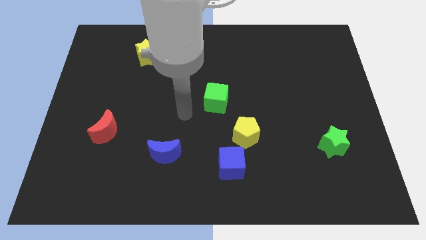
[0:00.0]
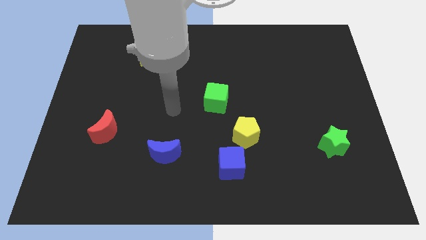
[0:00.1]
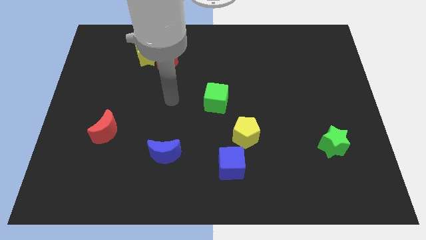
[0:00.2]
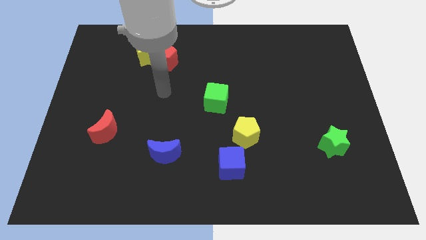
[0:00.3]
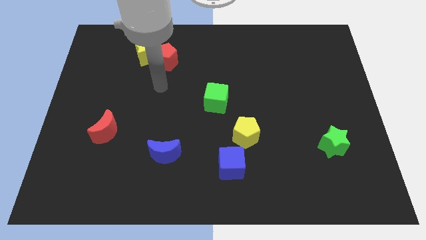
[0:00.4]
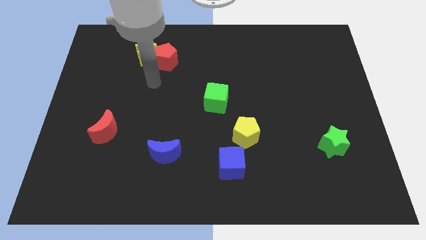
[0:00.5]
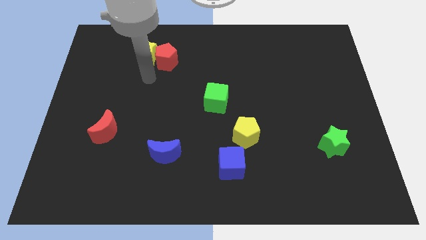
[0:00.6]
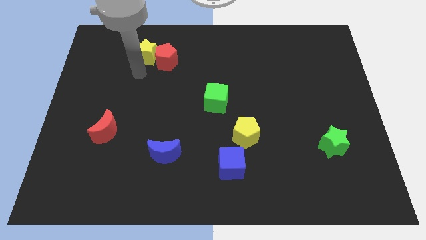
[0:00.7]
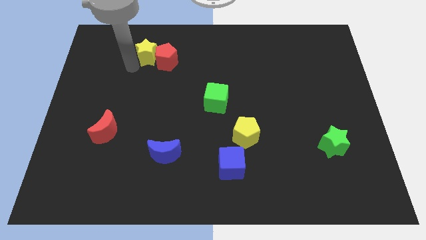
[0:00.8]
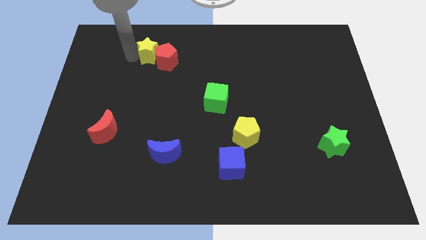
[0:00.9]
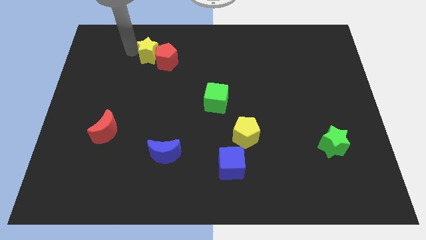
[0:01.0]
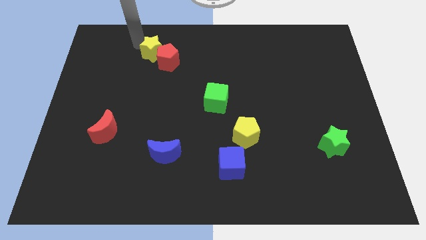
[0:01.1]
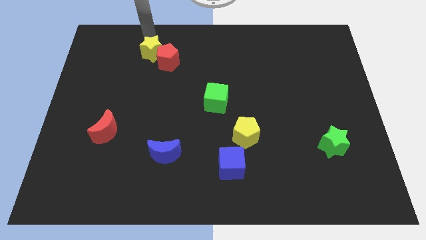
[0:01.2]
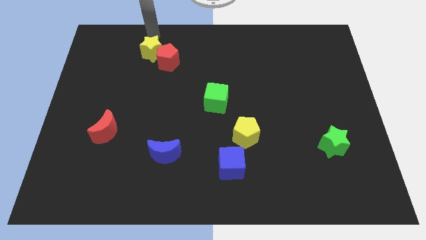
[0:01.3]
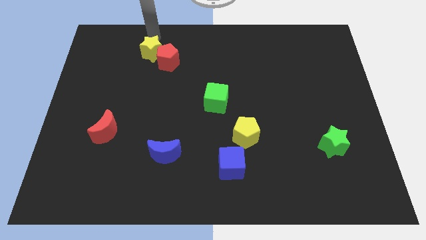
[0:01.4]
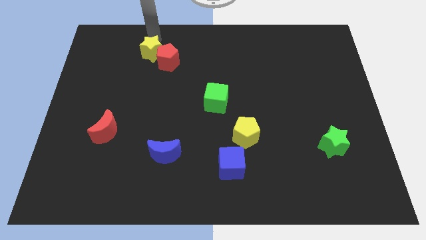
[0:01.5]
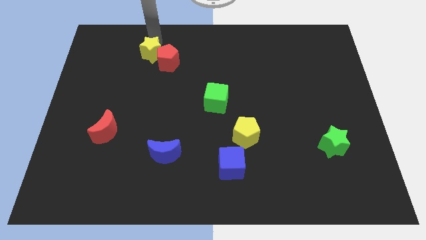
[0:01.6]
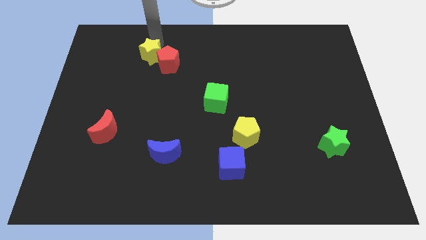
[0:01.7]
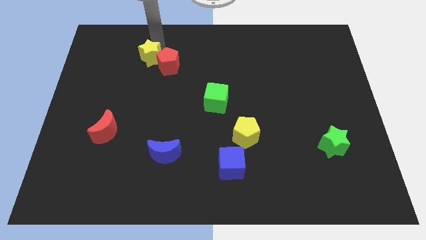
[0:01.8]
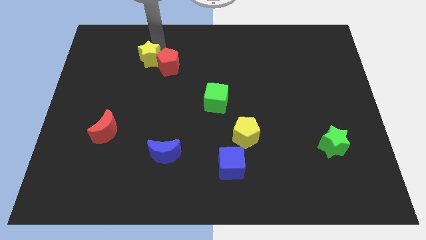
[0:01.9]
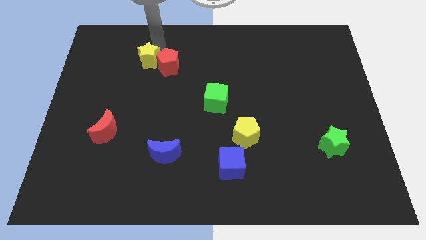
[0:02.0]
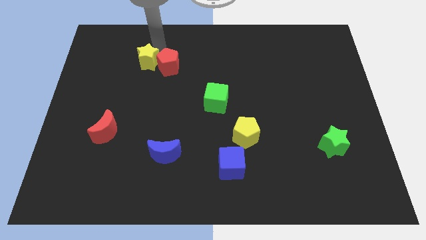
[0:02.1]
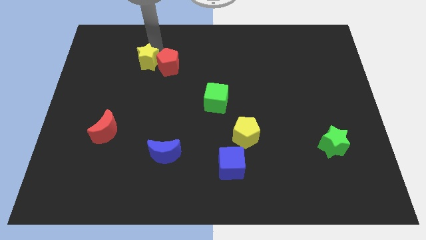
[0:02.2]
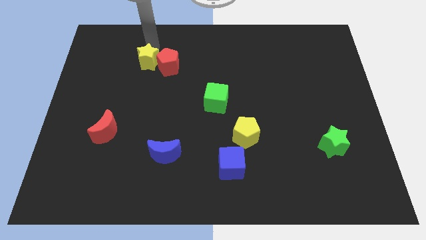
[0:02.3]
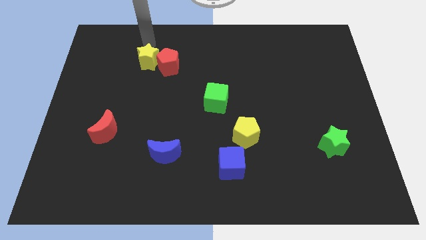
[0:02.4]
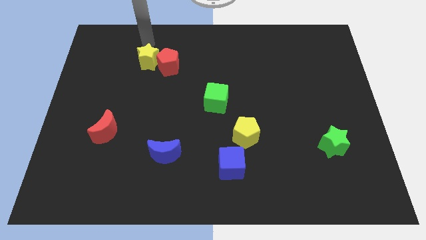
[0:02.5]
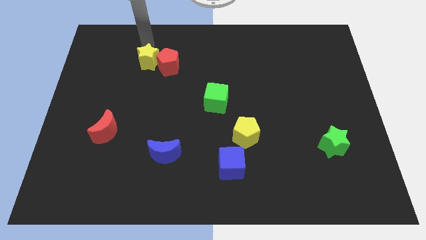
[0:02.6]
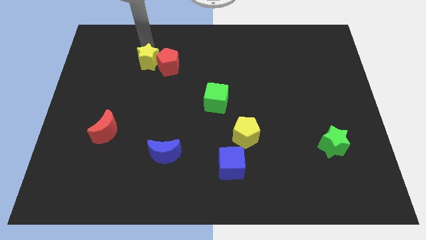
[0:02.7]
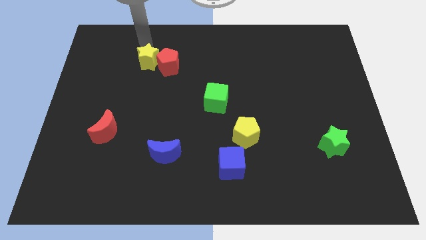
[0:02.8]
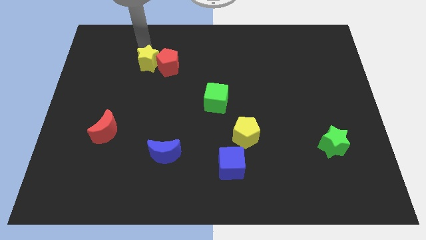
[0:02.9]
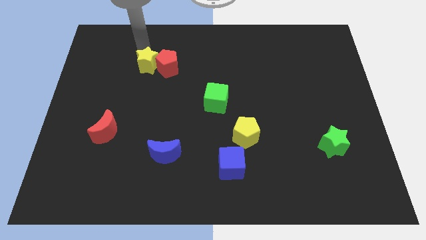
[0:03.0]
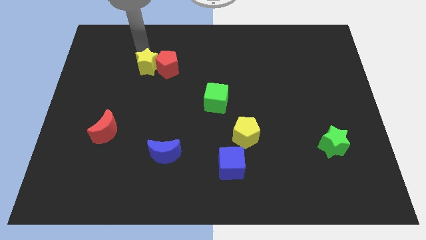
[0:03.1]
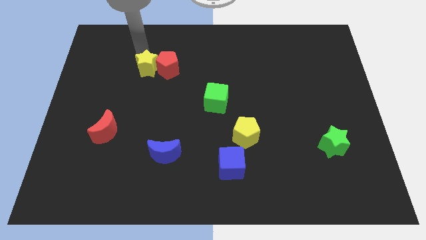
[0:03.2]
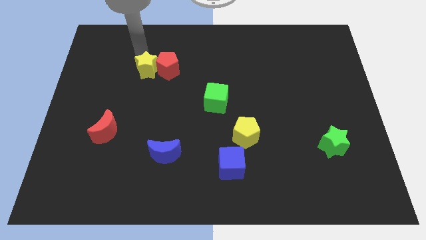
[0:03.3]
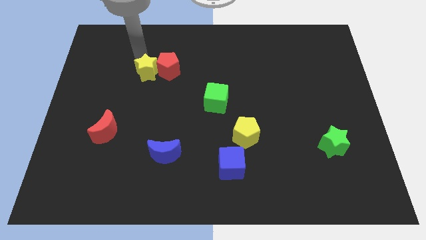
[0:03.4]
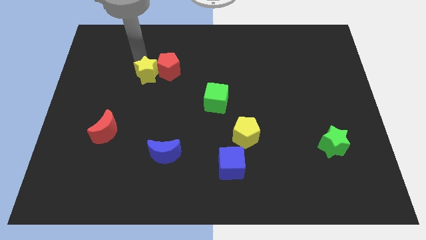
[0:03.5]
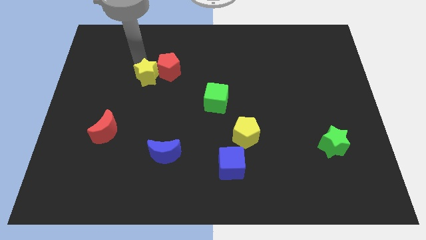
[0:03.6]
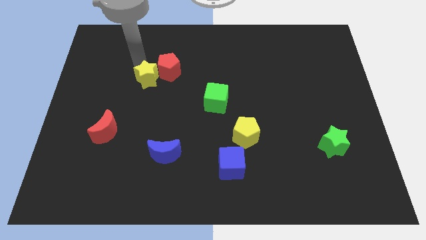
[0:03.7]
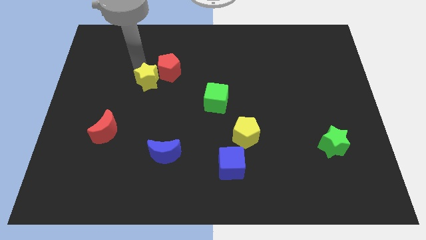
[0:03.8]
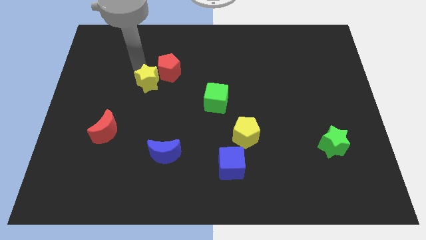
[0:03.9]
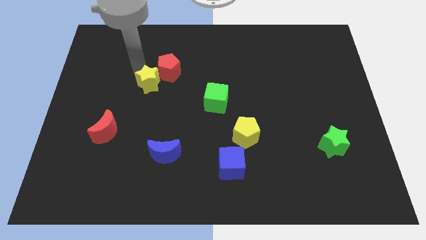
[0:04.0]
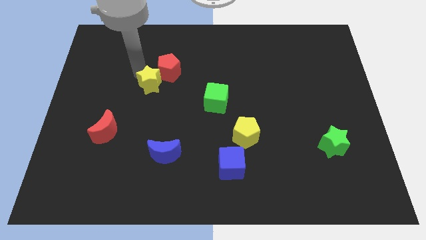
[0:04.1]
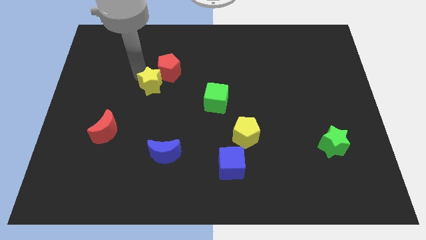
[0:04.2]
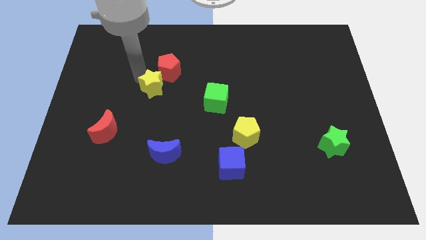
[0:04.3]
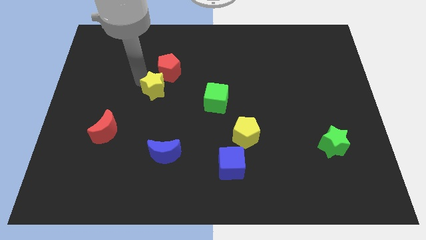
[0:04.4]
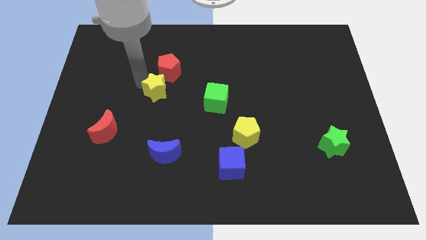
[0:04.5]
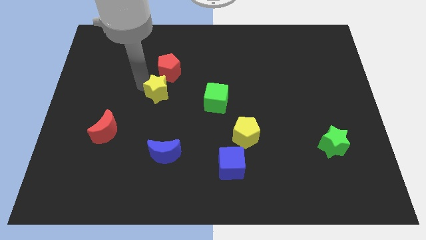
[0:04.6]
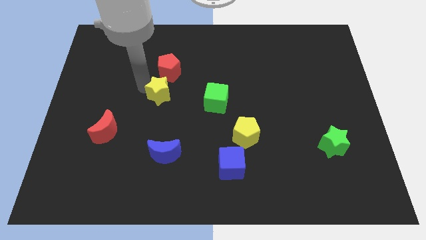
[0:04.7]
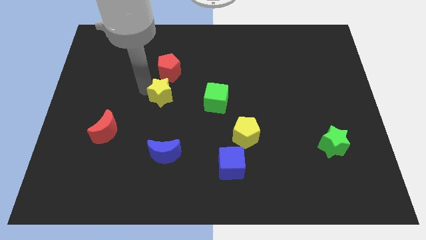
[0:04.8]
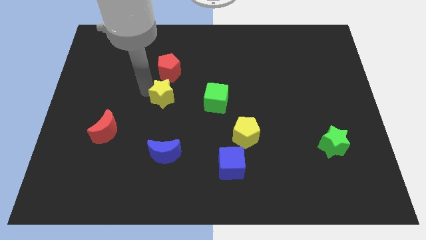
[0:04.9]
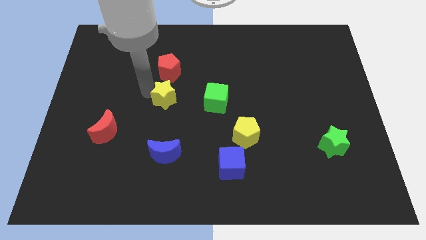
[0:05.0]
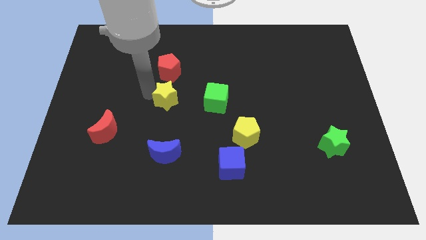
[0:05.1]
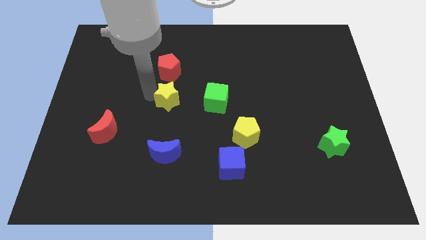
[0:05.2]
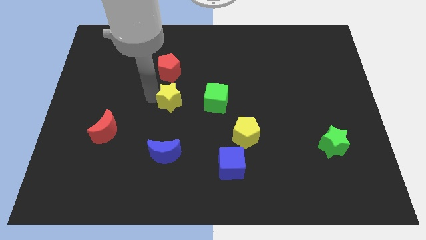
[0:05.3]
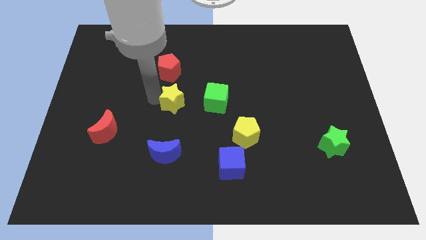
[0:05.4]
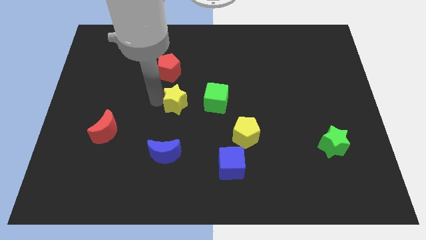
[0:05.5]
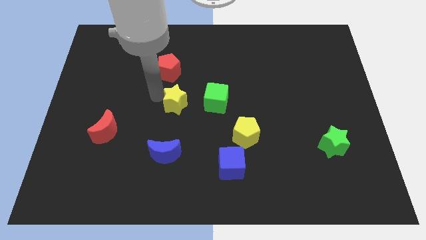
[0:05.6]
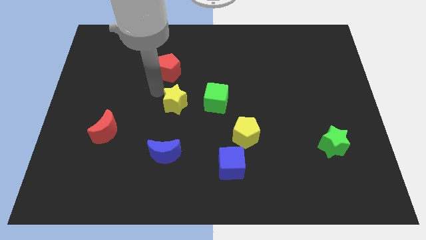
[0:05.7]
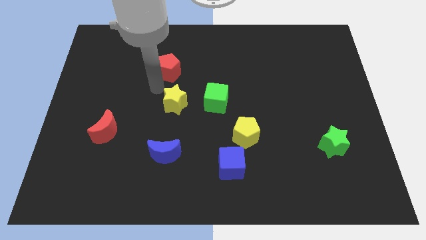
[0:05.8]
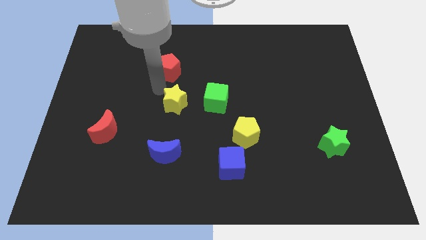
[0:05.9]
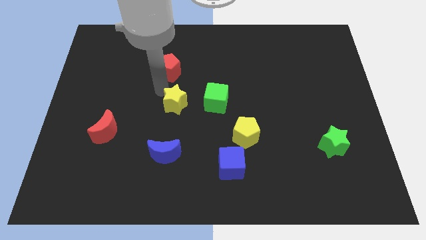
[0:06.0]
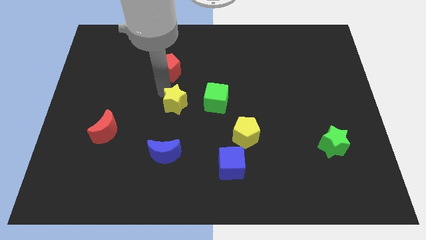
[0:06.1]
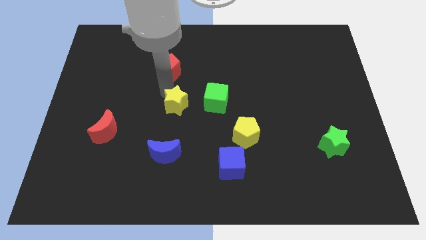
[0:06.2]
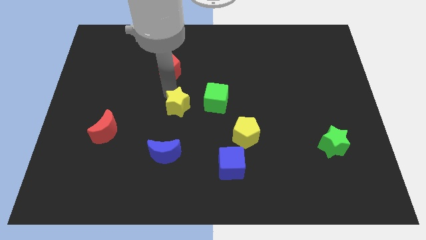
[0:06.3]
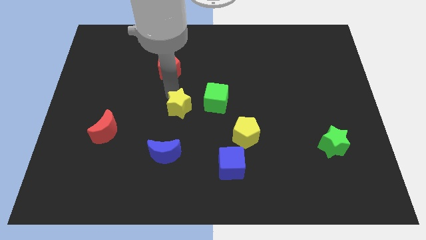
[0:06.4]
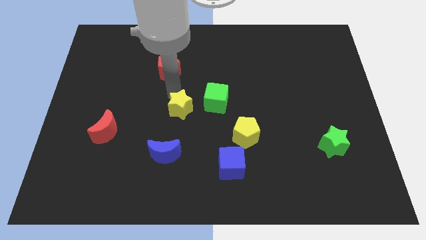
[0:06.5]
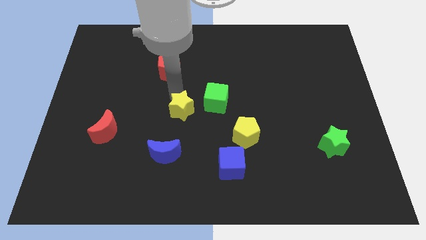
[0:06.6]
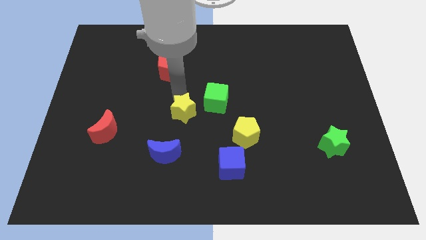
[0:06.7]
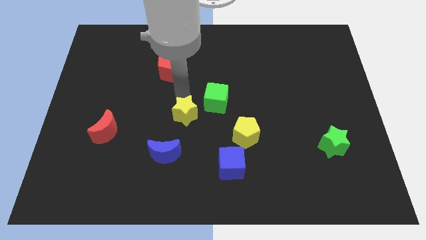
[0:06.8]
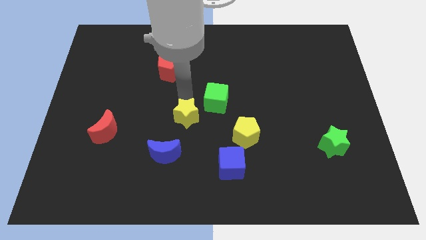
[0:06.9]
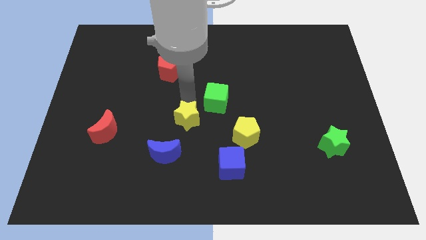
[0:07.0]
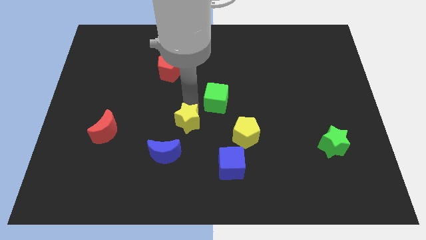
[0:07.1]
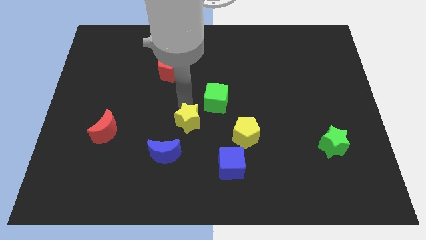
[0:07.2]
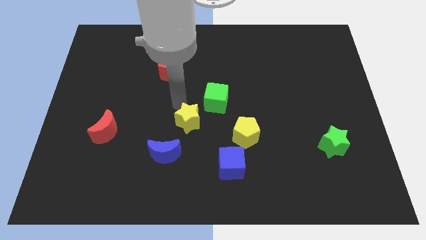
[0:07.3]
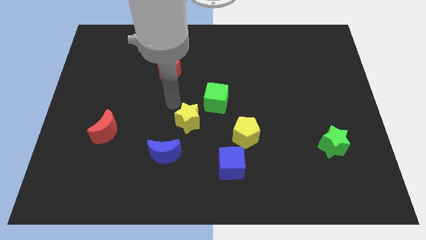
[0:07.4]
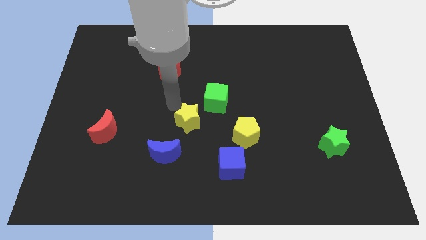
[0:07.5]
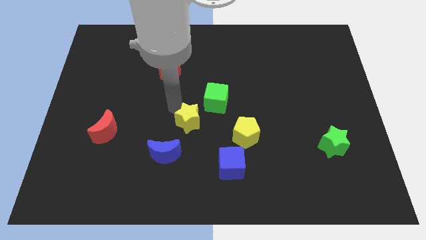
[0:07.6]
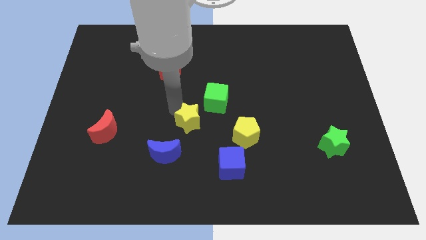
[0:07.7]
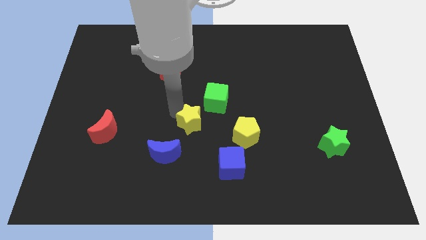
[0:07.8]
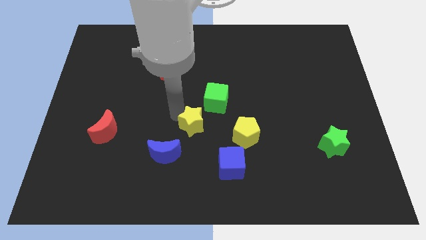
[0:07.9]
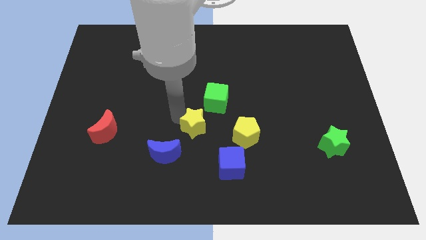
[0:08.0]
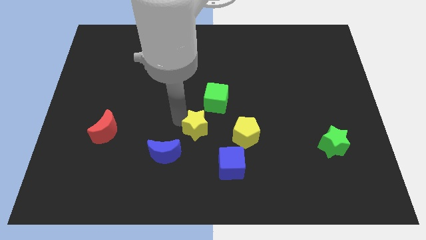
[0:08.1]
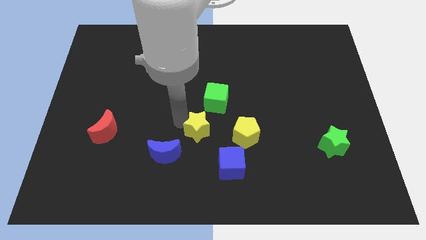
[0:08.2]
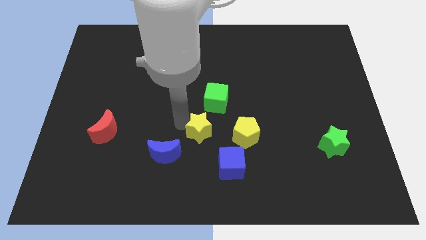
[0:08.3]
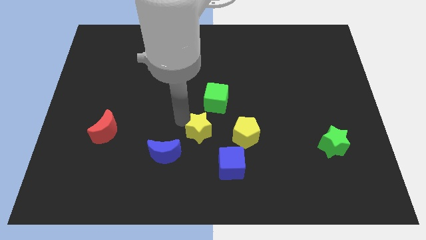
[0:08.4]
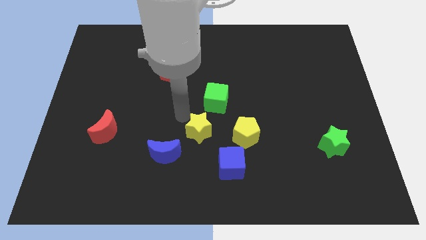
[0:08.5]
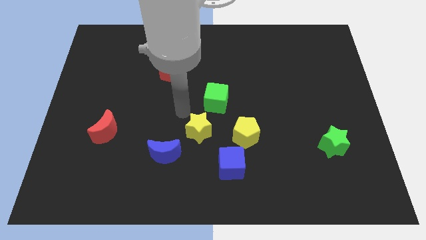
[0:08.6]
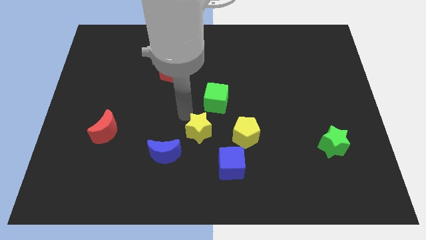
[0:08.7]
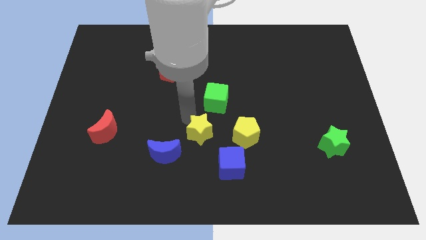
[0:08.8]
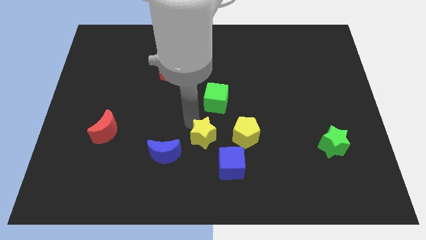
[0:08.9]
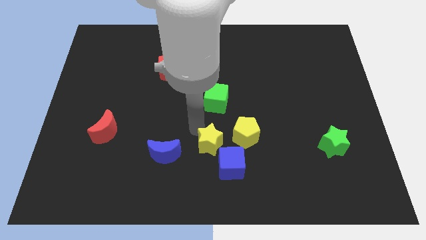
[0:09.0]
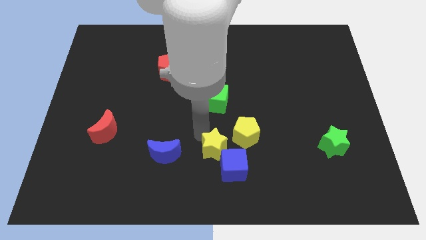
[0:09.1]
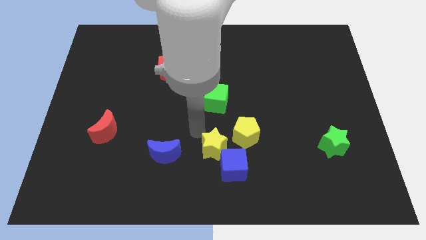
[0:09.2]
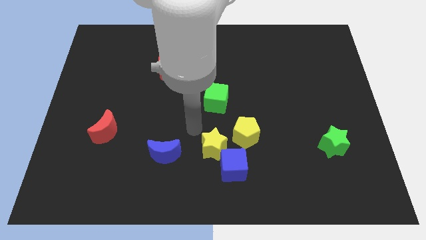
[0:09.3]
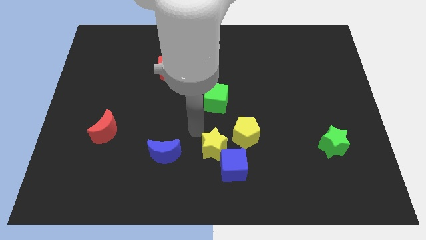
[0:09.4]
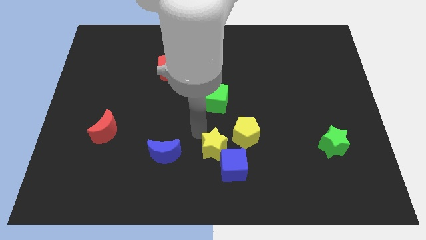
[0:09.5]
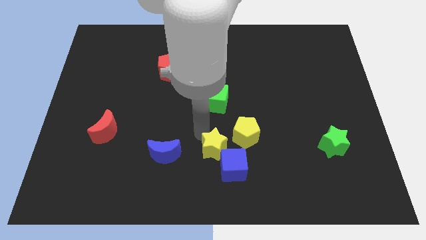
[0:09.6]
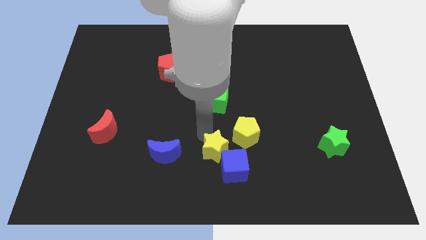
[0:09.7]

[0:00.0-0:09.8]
push the yellow star towards the blue cube
